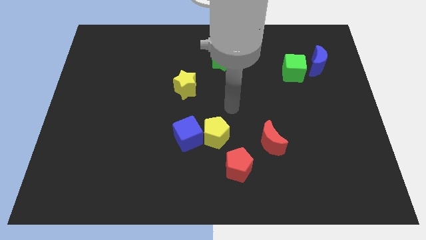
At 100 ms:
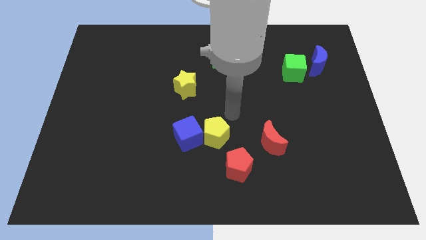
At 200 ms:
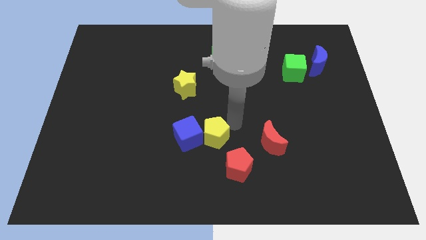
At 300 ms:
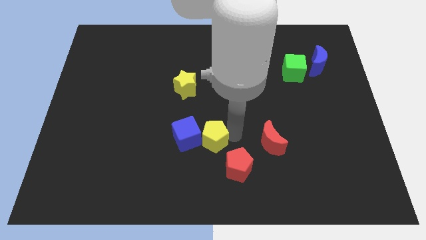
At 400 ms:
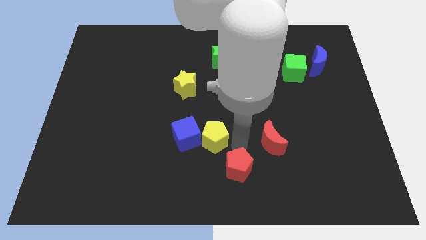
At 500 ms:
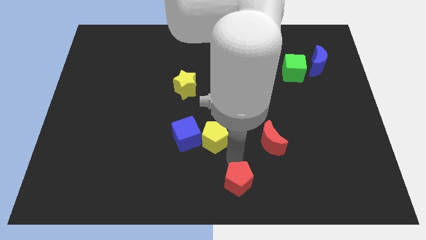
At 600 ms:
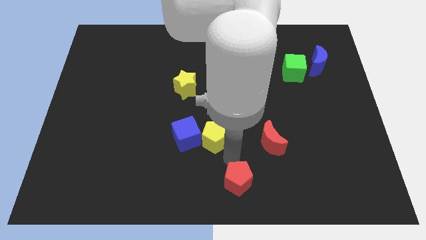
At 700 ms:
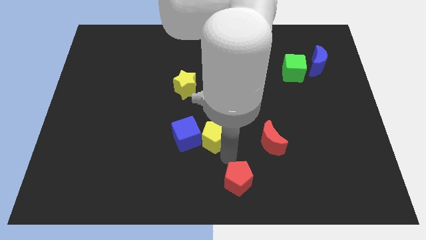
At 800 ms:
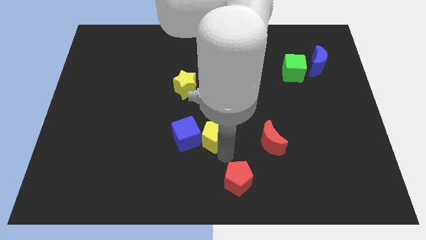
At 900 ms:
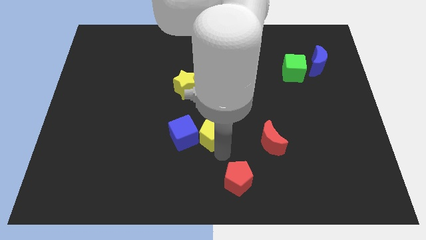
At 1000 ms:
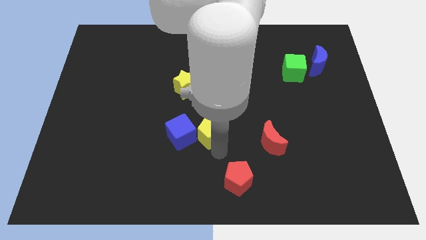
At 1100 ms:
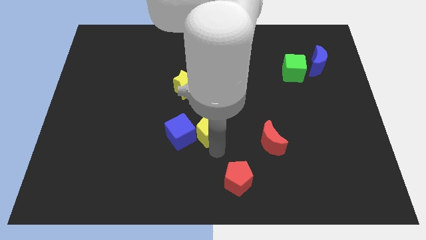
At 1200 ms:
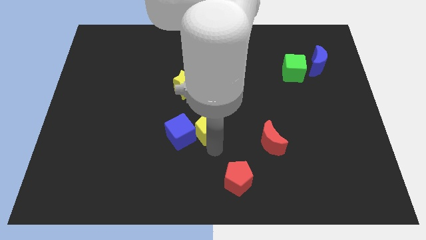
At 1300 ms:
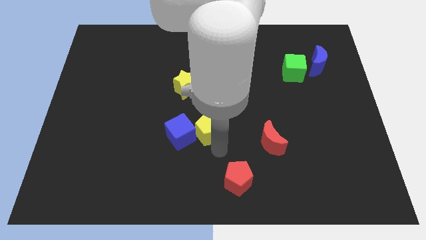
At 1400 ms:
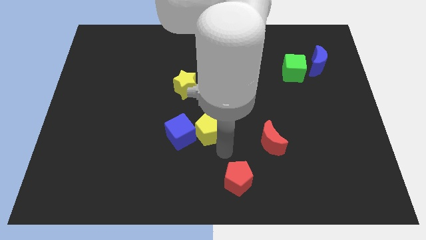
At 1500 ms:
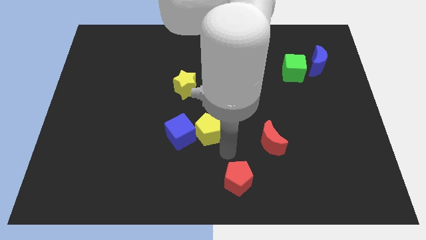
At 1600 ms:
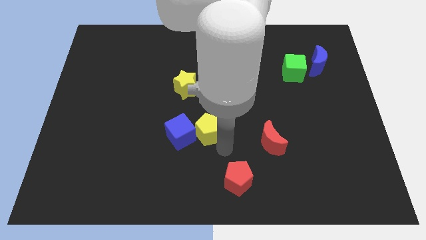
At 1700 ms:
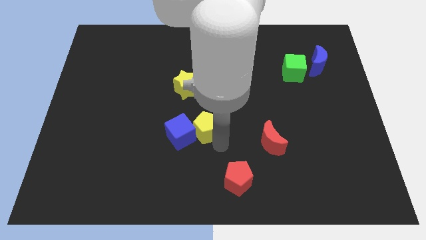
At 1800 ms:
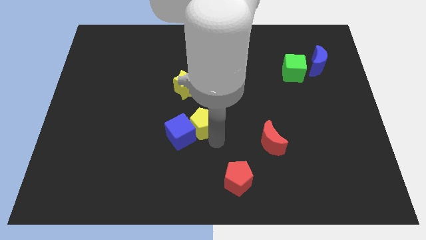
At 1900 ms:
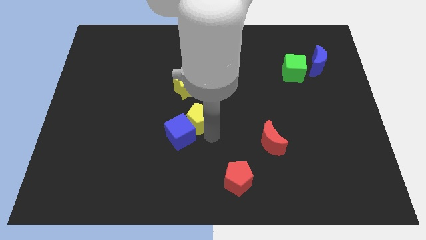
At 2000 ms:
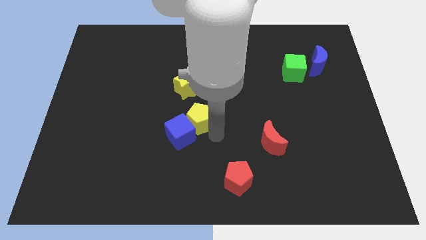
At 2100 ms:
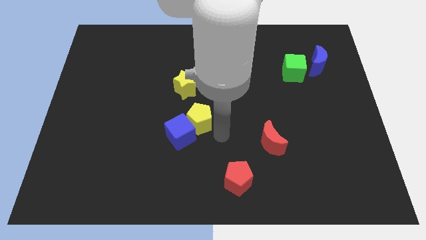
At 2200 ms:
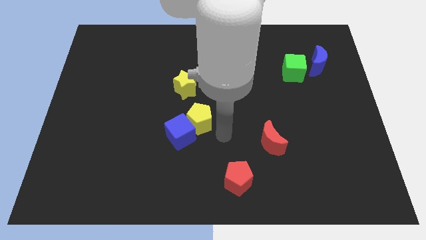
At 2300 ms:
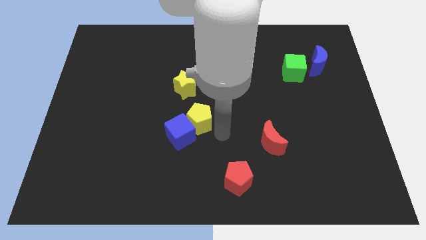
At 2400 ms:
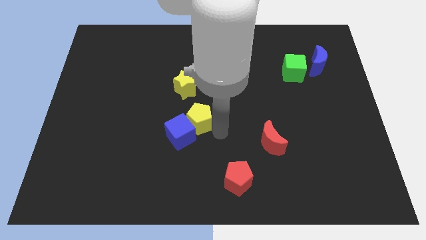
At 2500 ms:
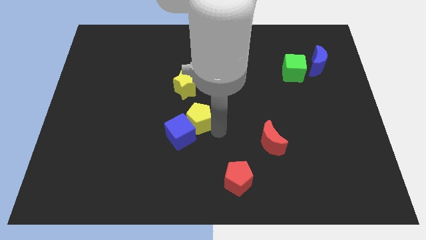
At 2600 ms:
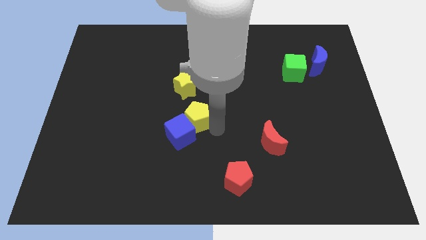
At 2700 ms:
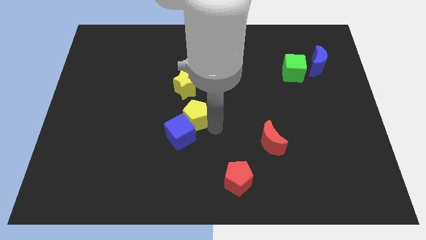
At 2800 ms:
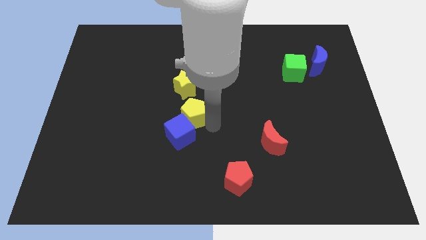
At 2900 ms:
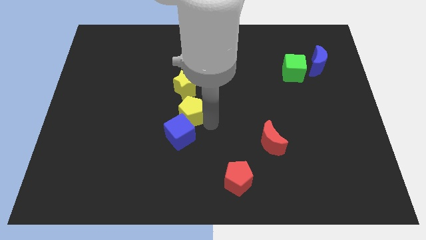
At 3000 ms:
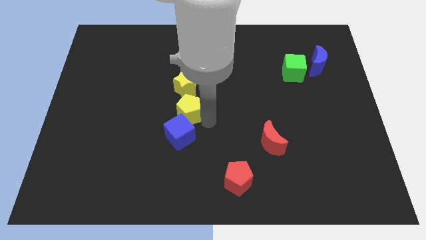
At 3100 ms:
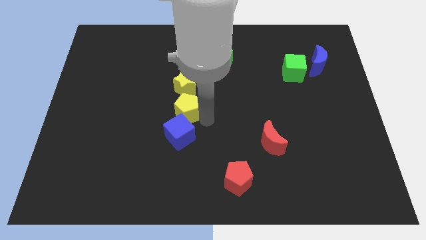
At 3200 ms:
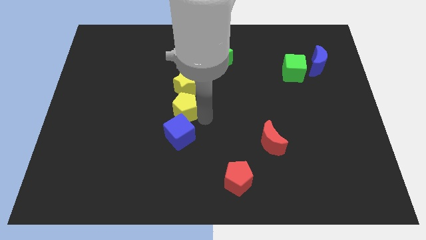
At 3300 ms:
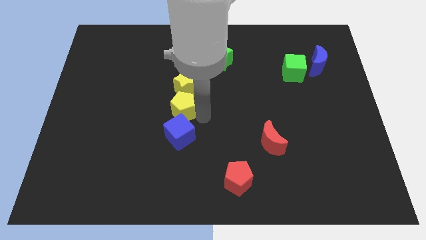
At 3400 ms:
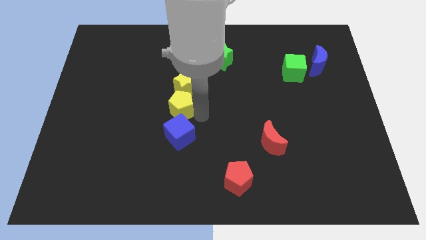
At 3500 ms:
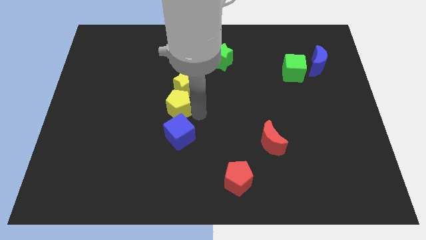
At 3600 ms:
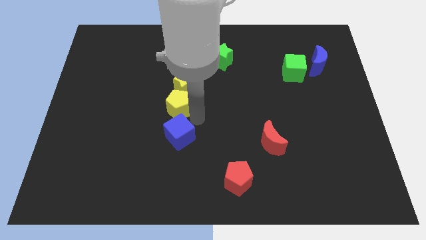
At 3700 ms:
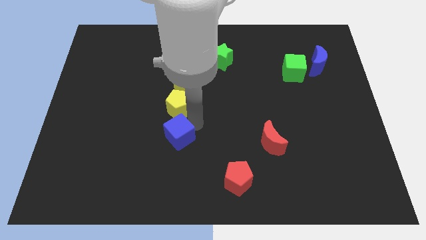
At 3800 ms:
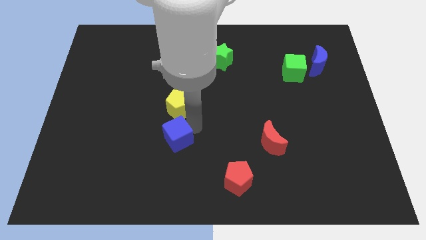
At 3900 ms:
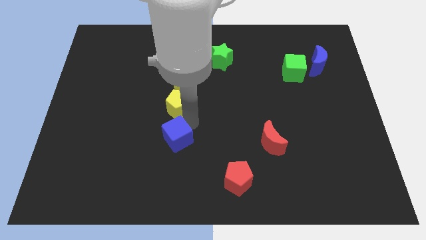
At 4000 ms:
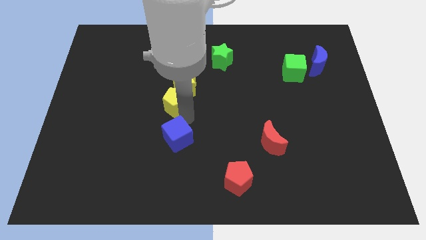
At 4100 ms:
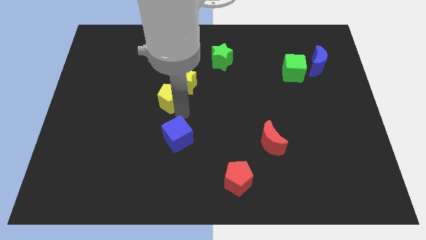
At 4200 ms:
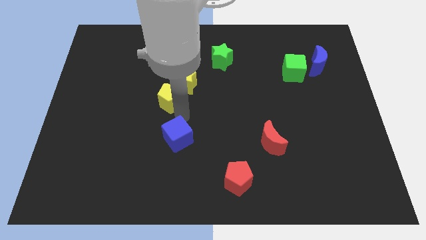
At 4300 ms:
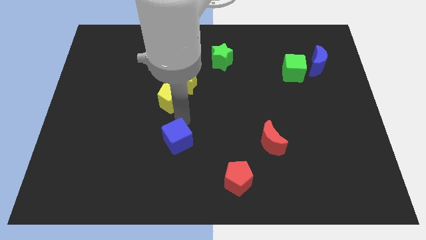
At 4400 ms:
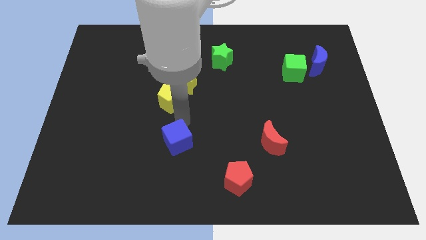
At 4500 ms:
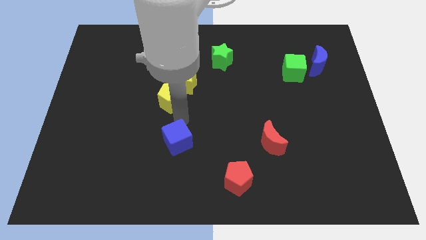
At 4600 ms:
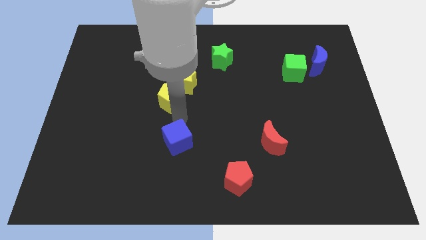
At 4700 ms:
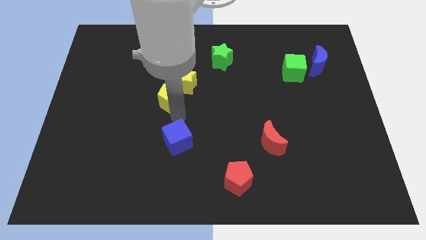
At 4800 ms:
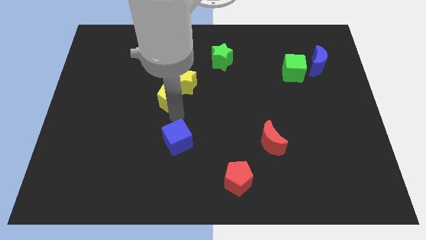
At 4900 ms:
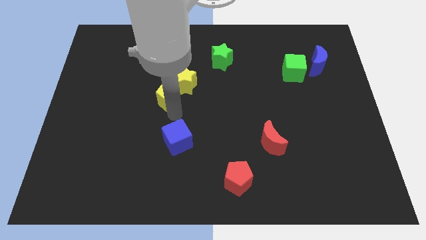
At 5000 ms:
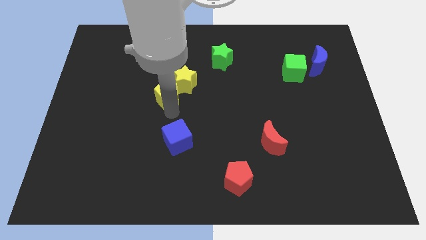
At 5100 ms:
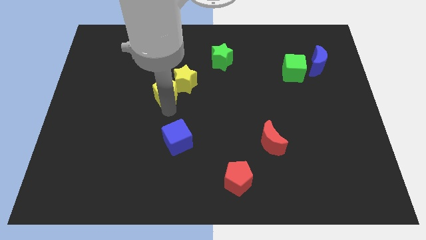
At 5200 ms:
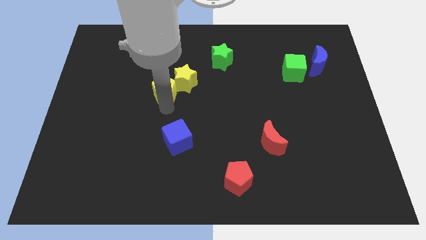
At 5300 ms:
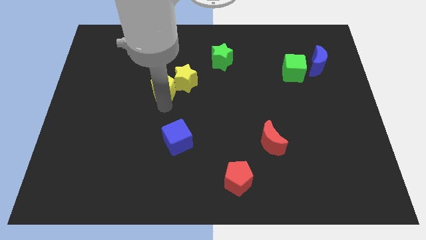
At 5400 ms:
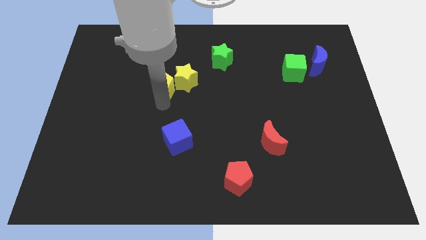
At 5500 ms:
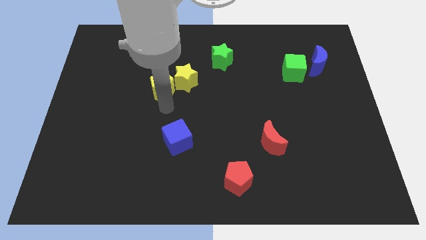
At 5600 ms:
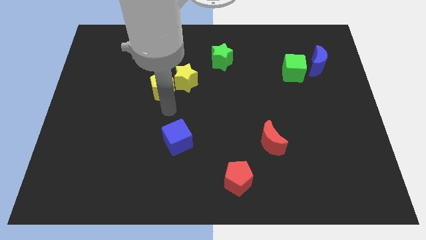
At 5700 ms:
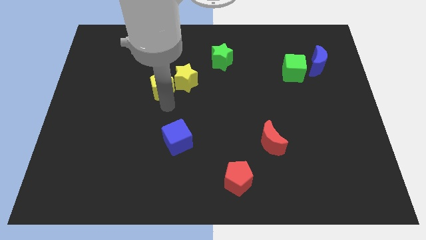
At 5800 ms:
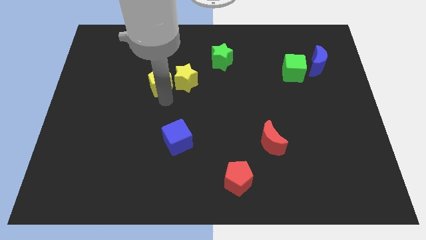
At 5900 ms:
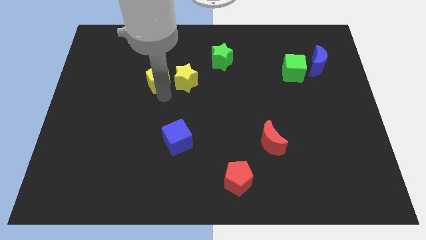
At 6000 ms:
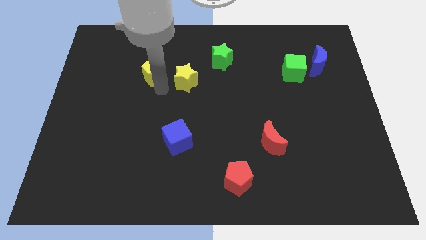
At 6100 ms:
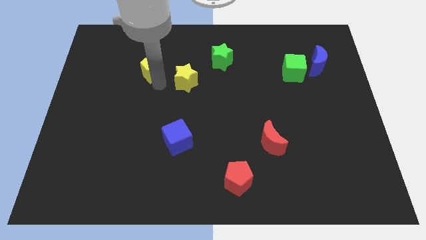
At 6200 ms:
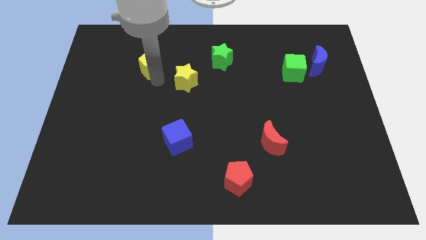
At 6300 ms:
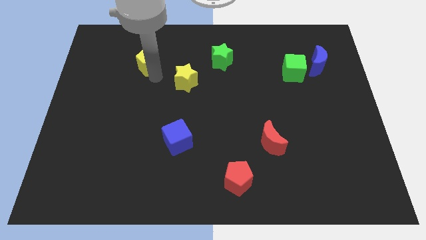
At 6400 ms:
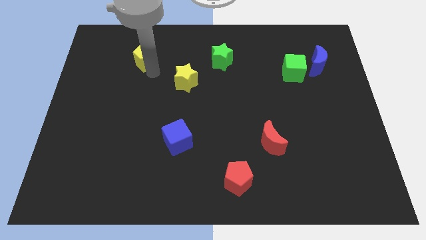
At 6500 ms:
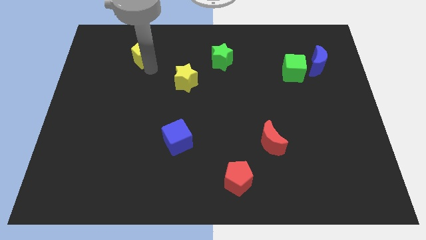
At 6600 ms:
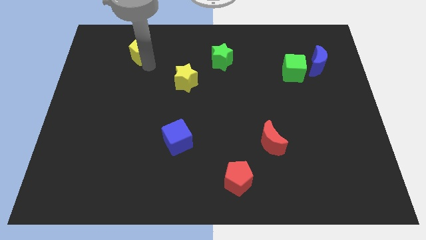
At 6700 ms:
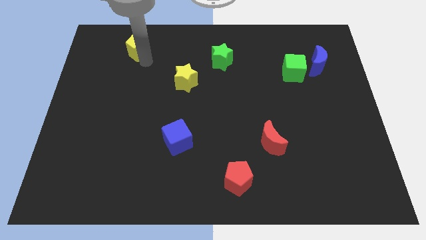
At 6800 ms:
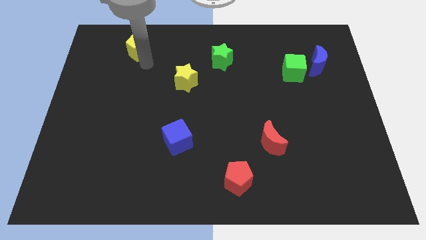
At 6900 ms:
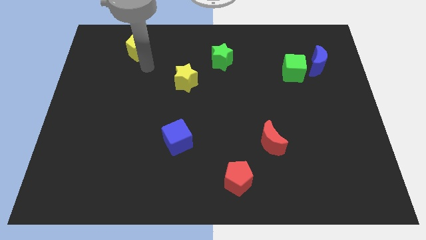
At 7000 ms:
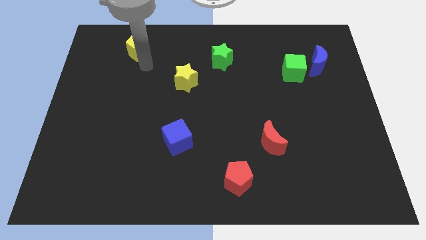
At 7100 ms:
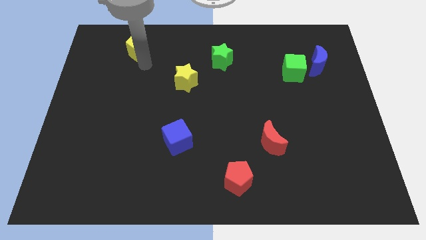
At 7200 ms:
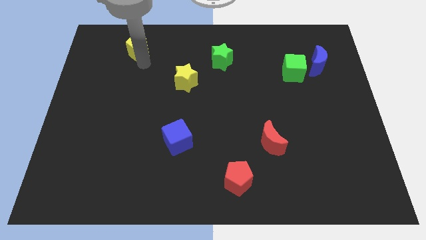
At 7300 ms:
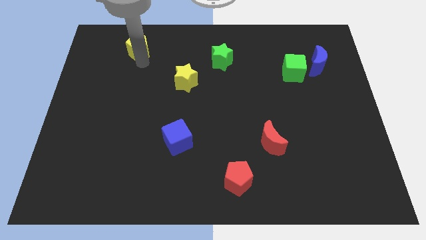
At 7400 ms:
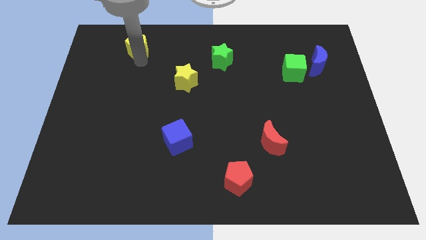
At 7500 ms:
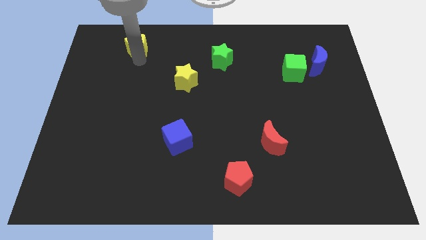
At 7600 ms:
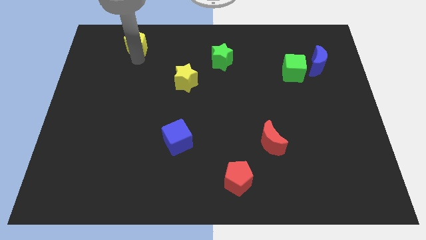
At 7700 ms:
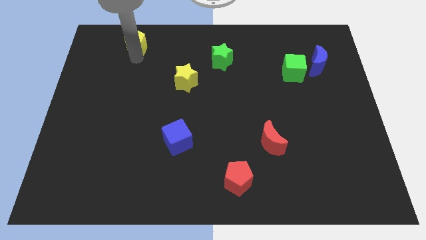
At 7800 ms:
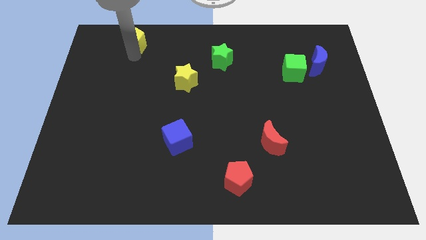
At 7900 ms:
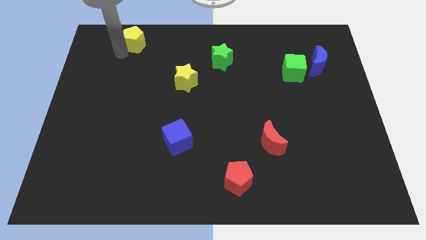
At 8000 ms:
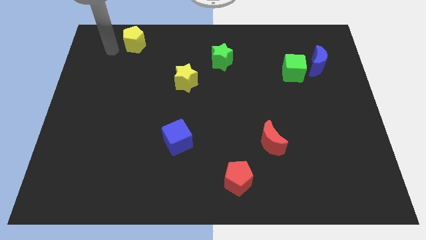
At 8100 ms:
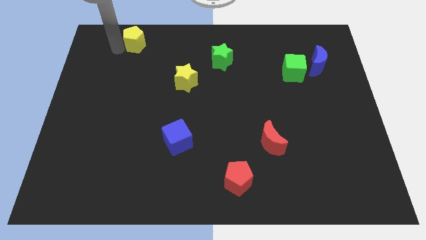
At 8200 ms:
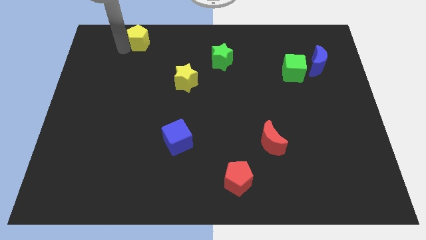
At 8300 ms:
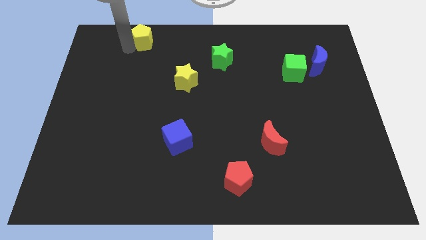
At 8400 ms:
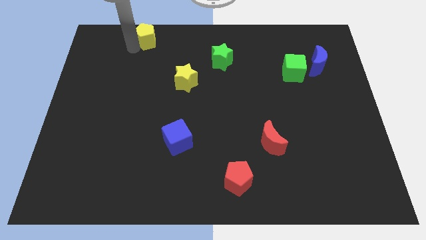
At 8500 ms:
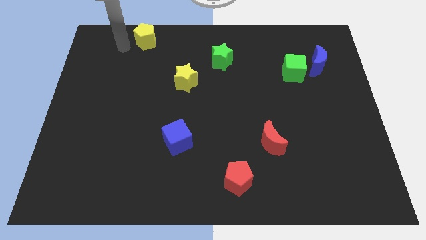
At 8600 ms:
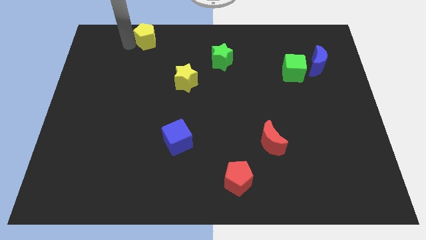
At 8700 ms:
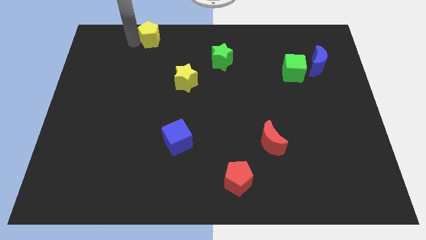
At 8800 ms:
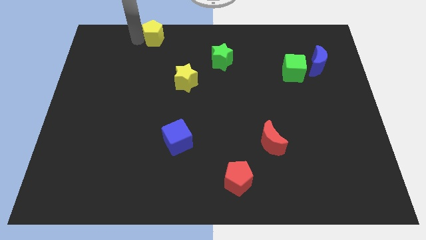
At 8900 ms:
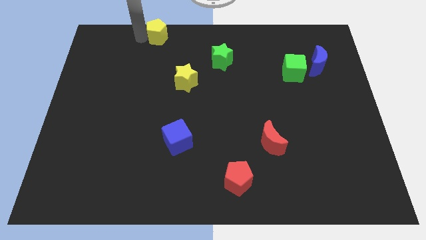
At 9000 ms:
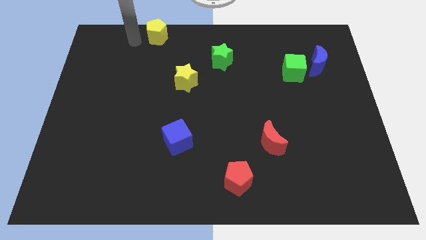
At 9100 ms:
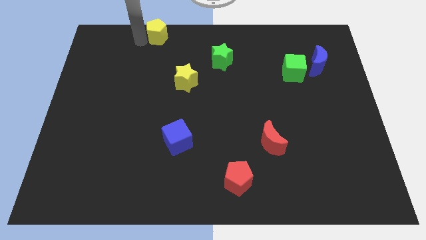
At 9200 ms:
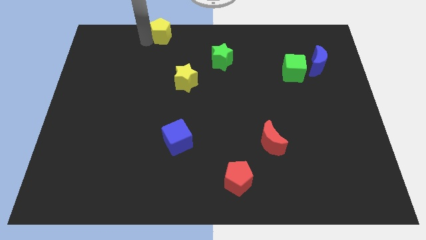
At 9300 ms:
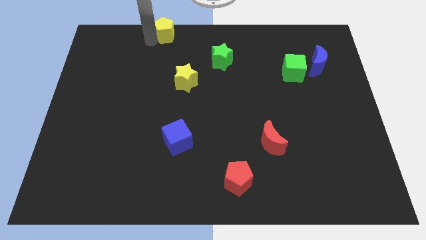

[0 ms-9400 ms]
move the yellow pentagon to the towards your base
